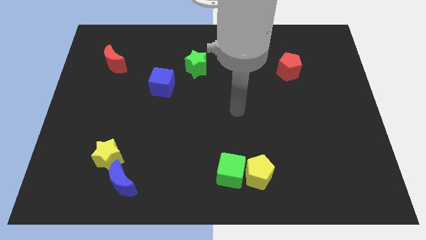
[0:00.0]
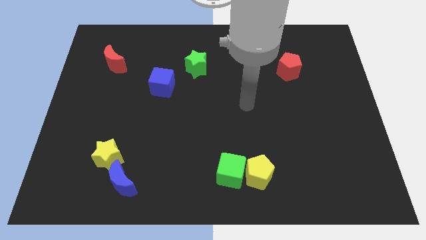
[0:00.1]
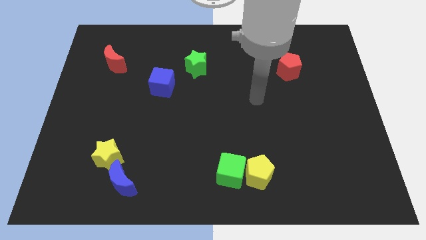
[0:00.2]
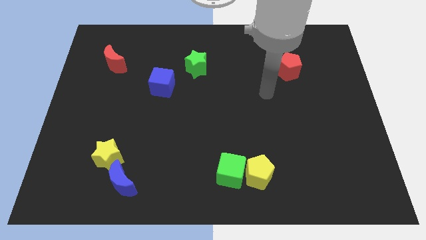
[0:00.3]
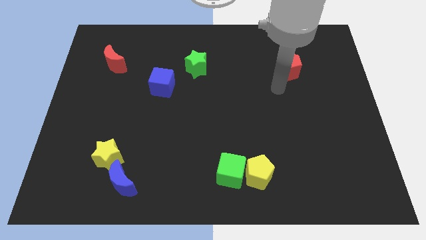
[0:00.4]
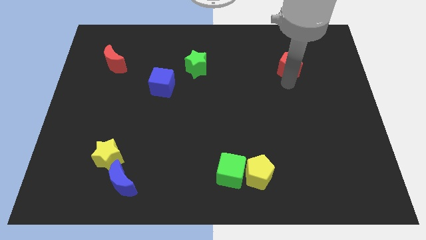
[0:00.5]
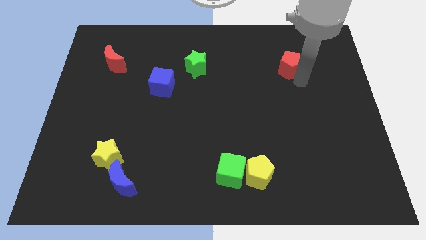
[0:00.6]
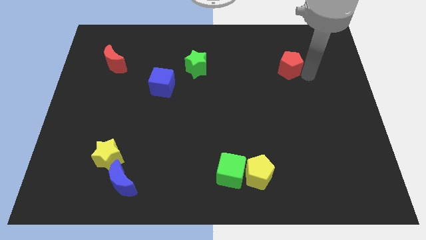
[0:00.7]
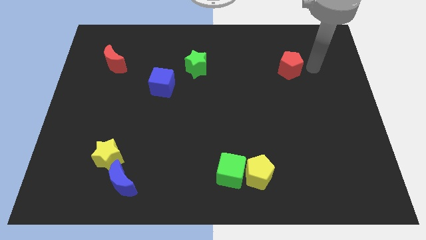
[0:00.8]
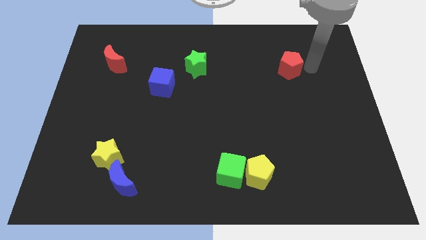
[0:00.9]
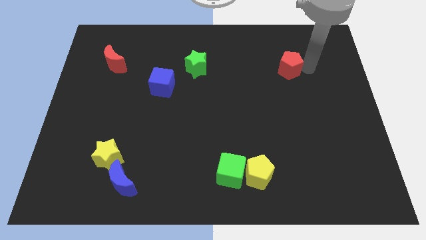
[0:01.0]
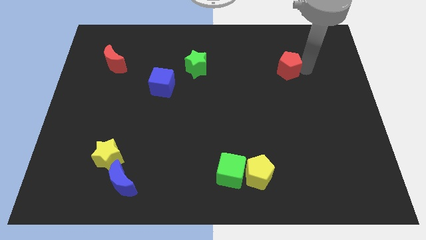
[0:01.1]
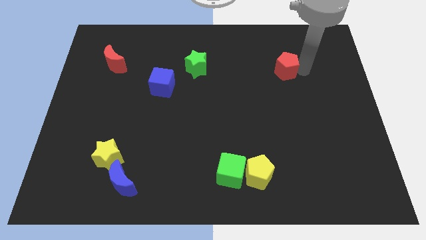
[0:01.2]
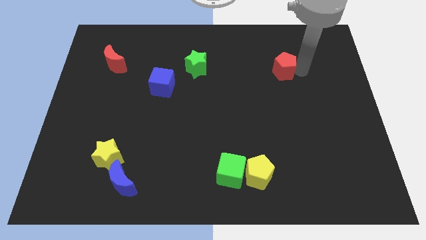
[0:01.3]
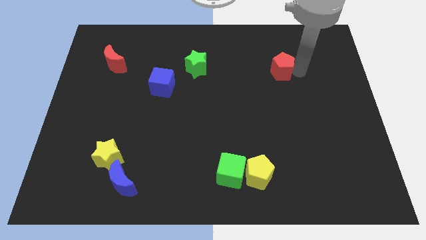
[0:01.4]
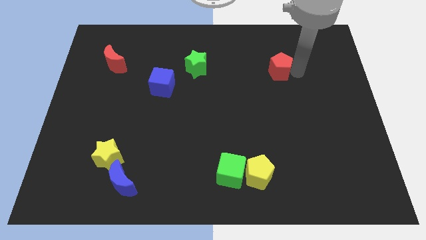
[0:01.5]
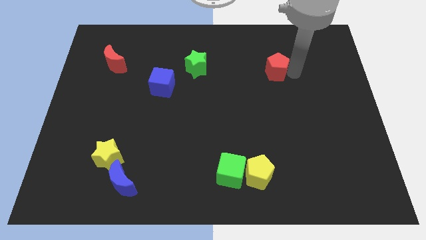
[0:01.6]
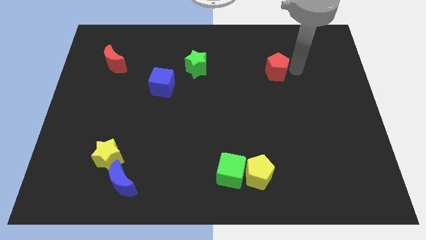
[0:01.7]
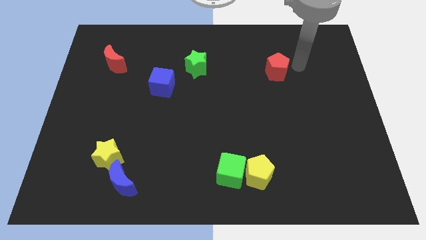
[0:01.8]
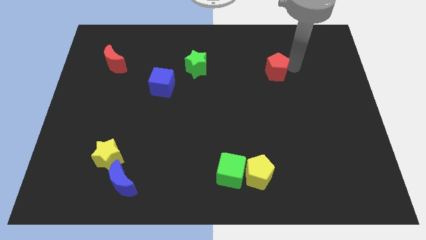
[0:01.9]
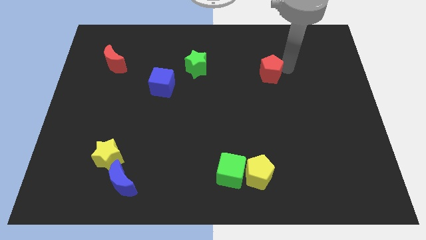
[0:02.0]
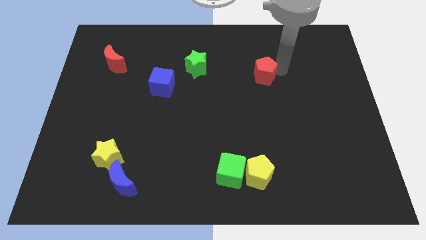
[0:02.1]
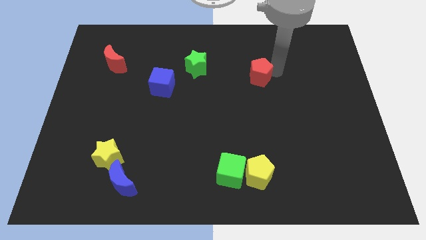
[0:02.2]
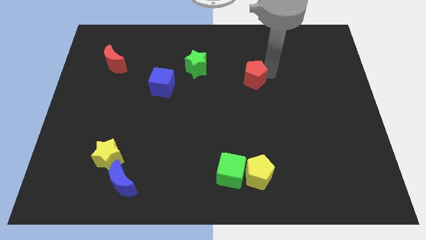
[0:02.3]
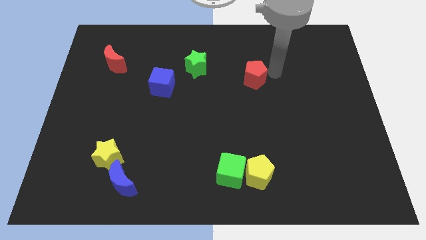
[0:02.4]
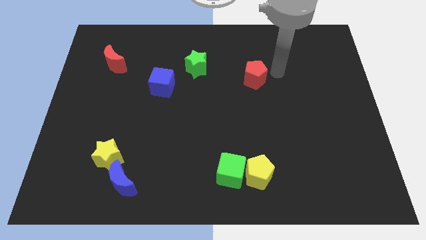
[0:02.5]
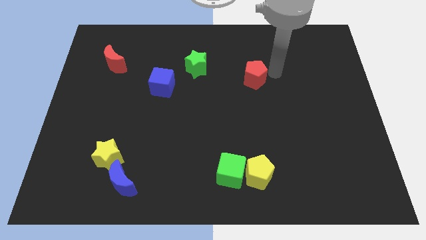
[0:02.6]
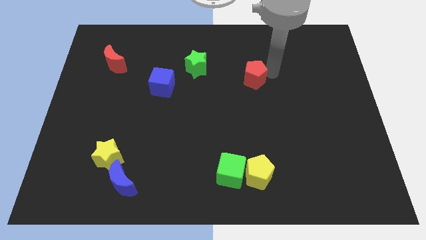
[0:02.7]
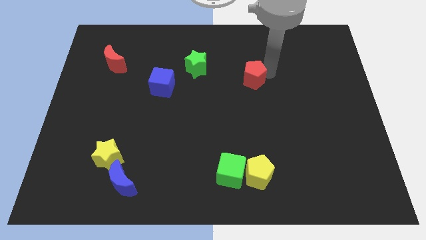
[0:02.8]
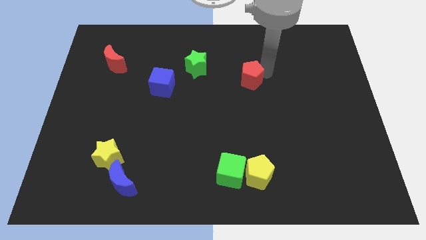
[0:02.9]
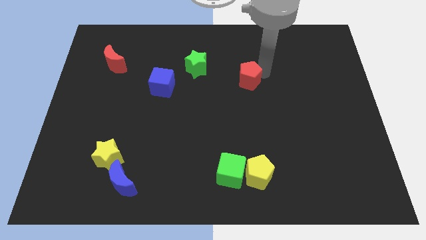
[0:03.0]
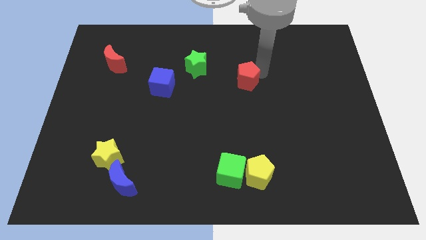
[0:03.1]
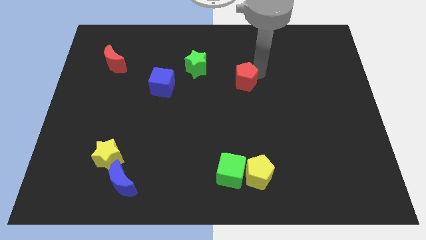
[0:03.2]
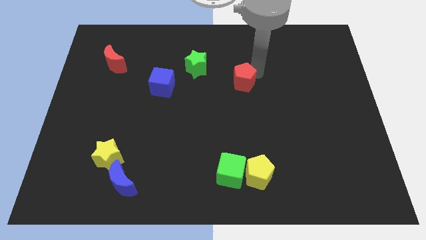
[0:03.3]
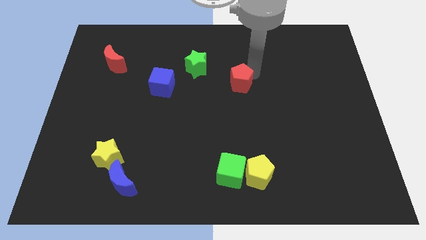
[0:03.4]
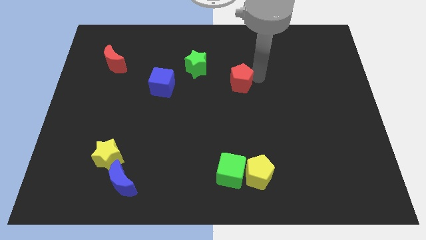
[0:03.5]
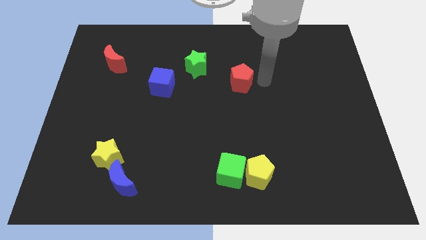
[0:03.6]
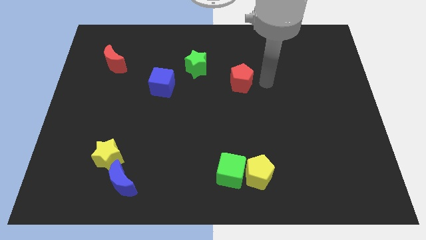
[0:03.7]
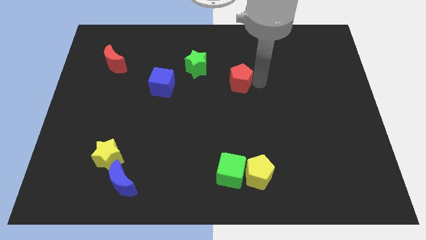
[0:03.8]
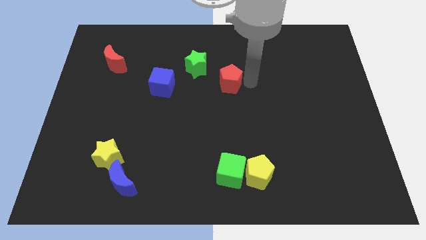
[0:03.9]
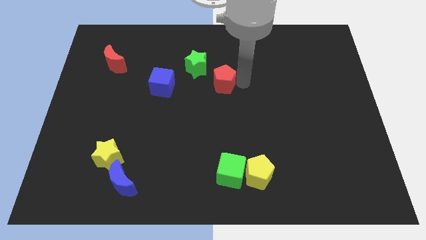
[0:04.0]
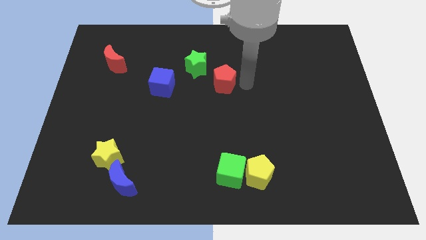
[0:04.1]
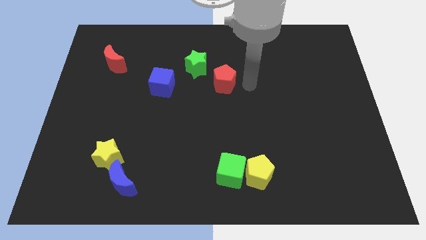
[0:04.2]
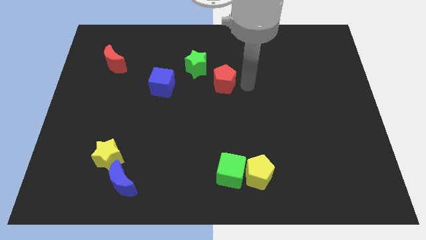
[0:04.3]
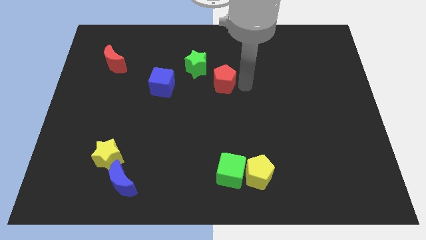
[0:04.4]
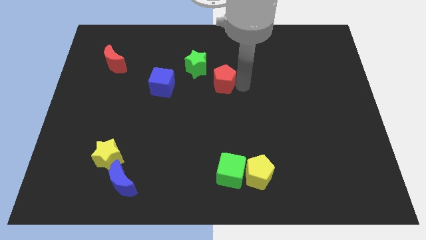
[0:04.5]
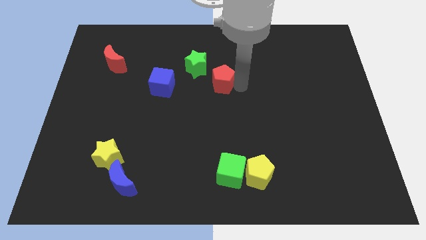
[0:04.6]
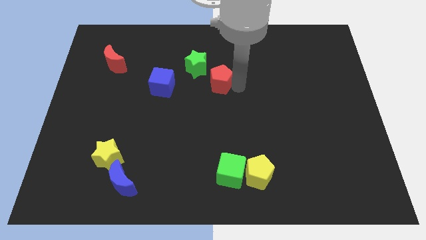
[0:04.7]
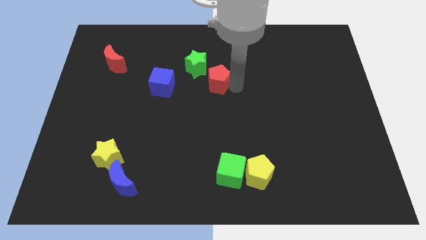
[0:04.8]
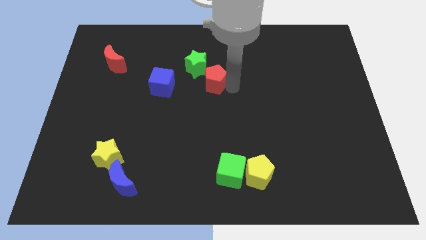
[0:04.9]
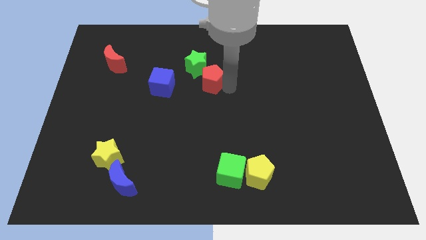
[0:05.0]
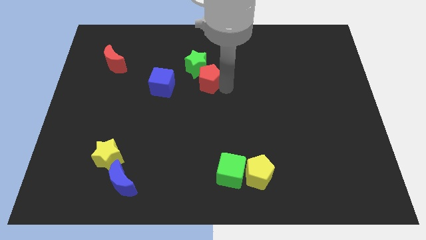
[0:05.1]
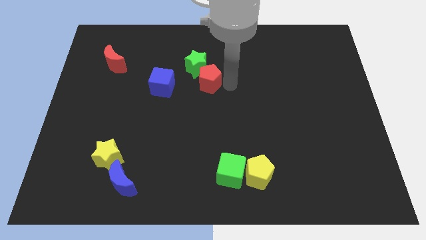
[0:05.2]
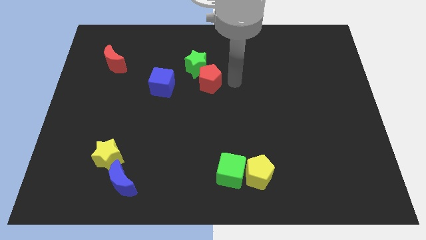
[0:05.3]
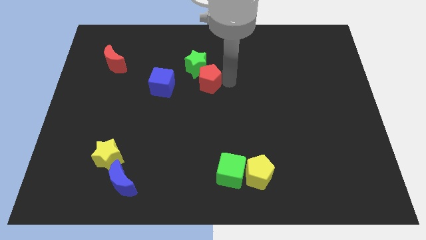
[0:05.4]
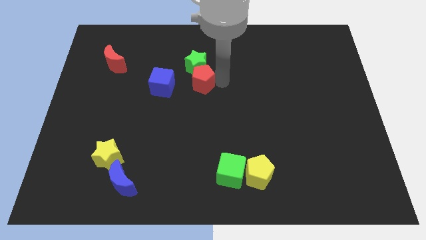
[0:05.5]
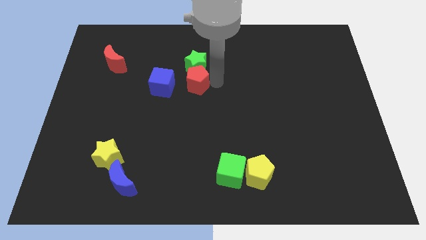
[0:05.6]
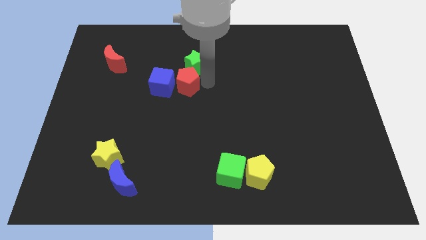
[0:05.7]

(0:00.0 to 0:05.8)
push the red pentagon next to the blue cube

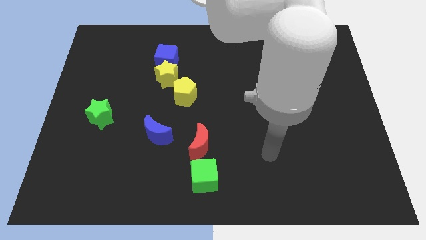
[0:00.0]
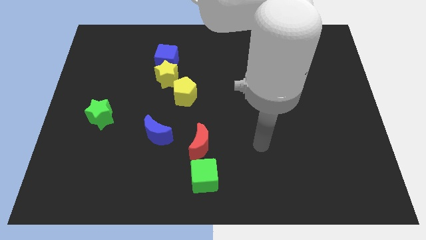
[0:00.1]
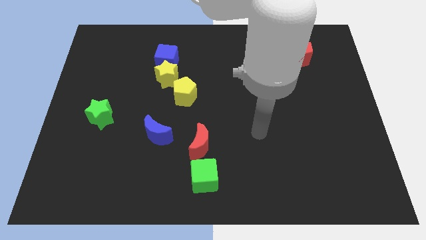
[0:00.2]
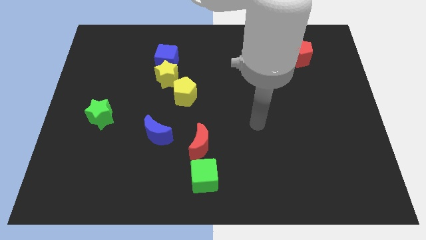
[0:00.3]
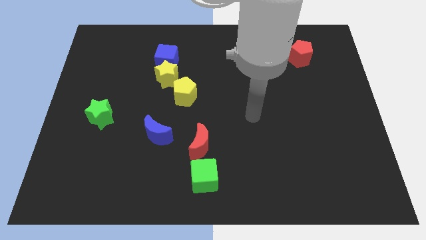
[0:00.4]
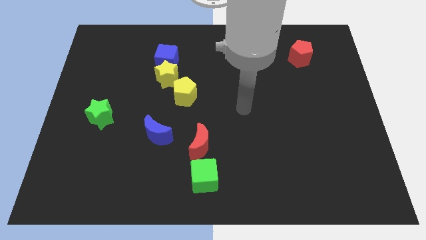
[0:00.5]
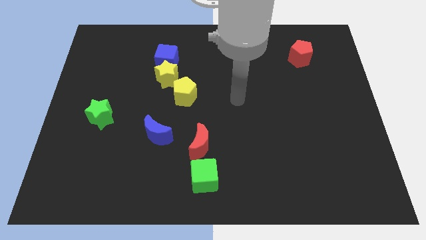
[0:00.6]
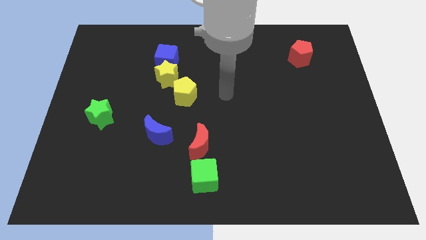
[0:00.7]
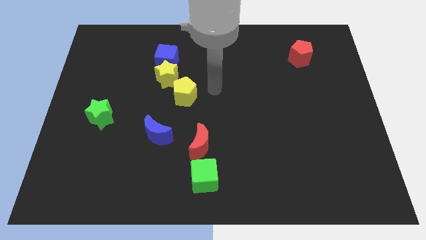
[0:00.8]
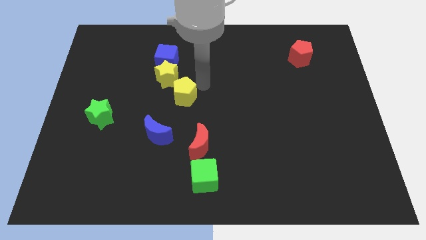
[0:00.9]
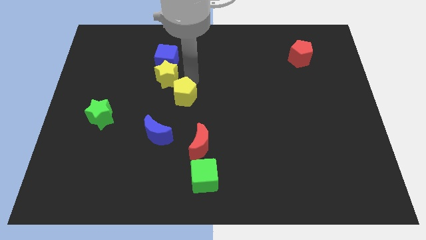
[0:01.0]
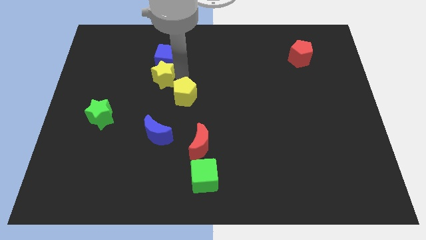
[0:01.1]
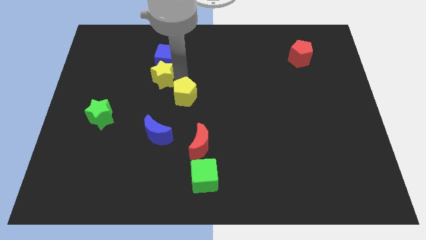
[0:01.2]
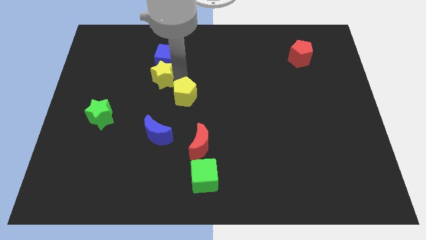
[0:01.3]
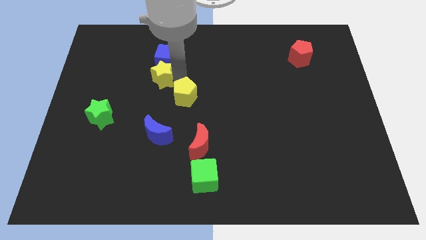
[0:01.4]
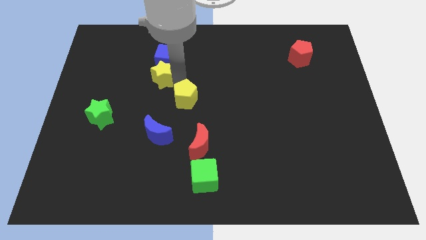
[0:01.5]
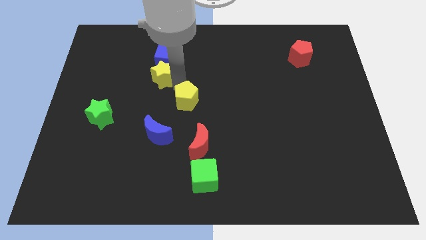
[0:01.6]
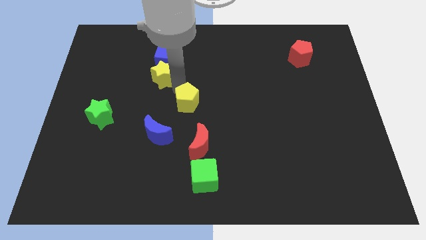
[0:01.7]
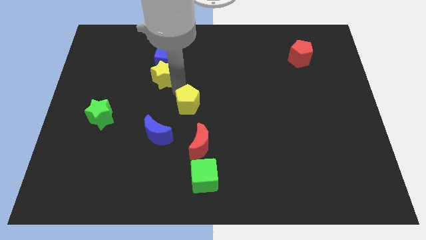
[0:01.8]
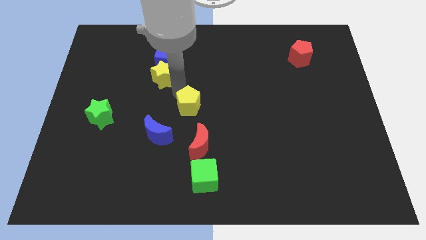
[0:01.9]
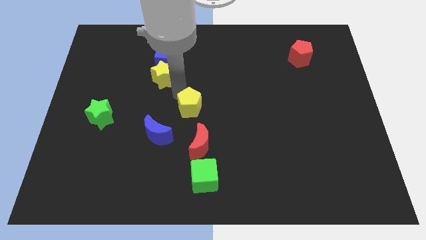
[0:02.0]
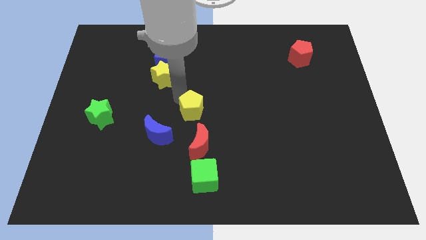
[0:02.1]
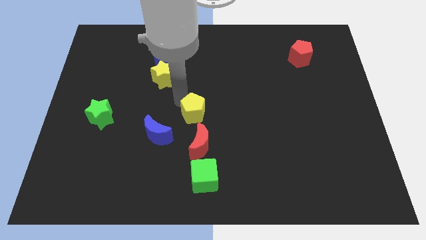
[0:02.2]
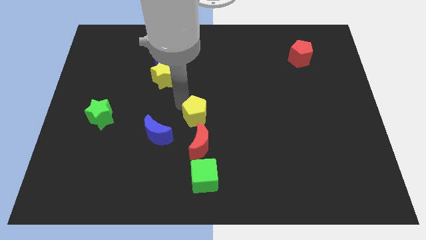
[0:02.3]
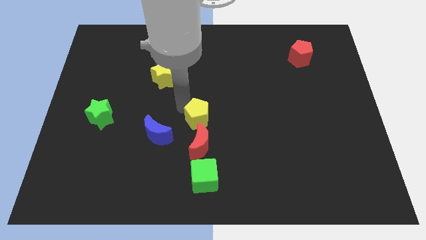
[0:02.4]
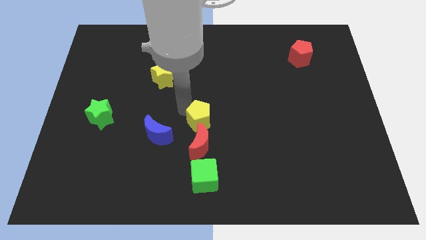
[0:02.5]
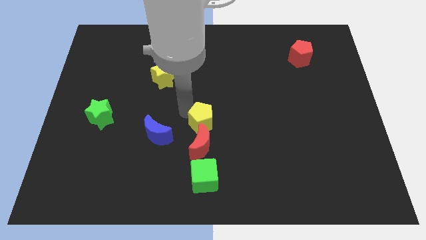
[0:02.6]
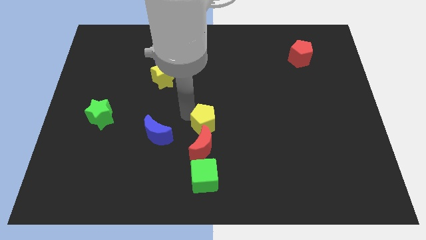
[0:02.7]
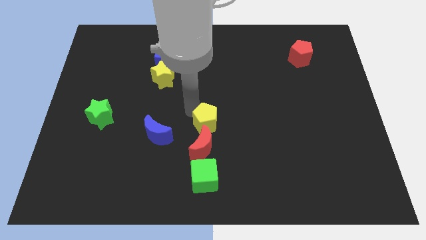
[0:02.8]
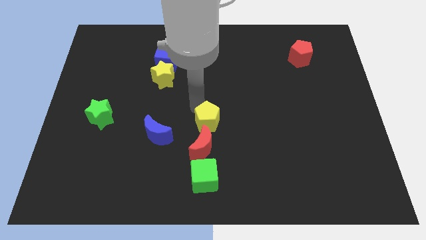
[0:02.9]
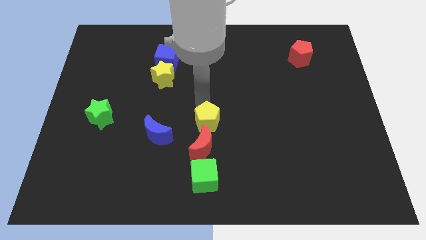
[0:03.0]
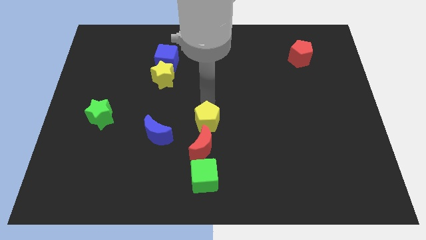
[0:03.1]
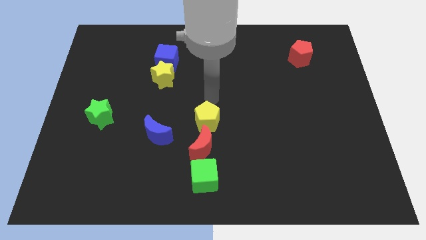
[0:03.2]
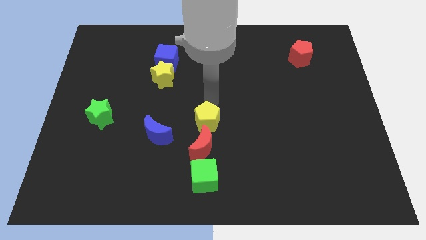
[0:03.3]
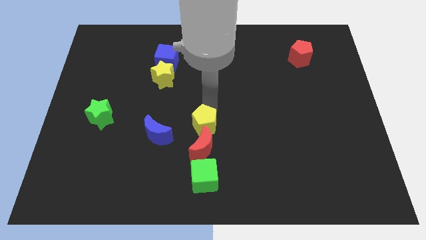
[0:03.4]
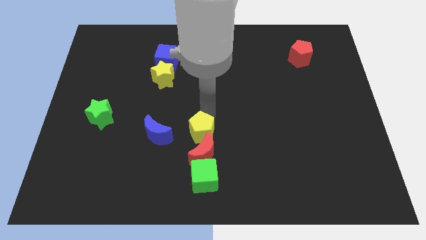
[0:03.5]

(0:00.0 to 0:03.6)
slide the yellow pentagon to the red moon
